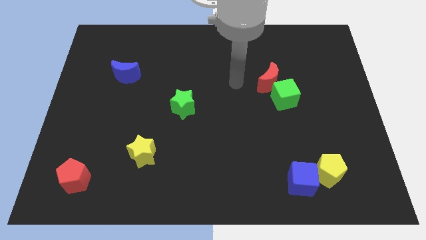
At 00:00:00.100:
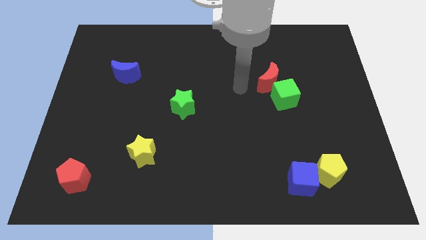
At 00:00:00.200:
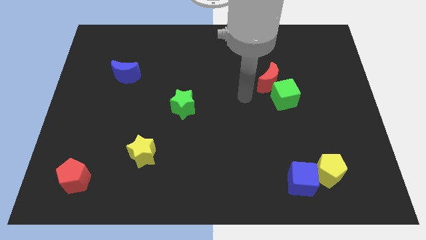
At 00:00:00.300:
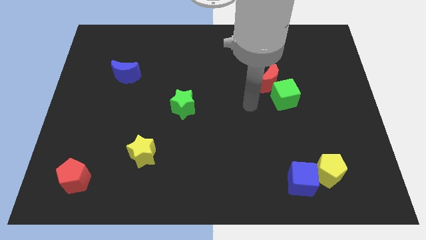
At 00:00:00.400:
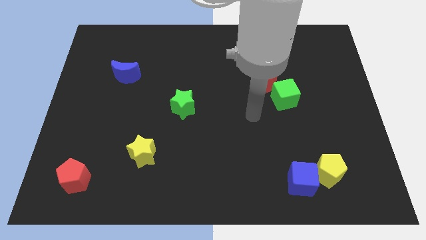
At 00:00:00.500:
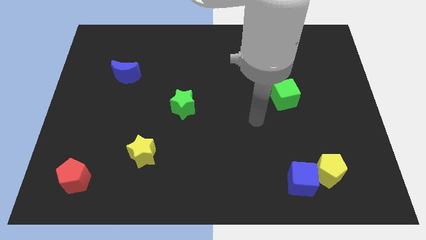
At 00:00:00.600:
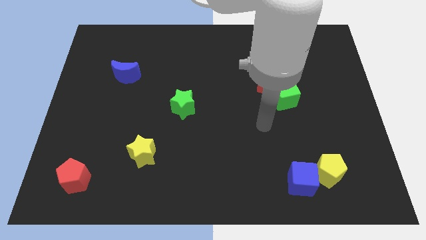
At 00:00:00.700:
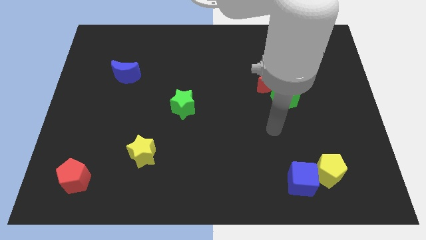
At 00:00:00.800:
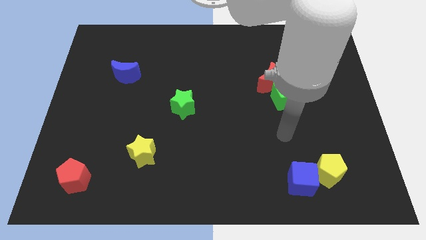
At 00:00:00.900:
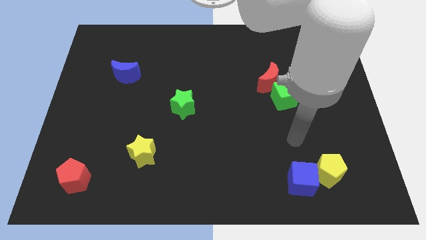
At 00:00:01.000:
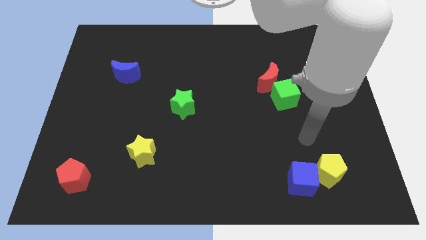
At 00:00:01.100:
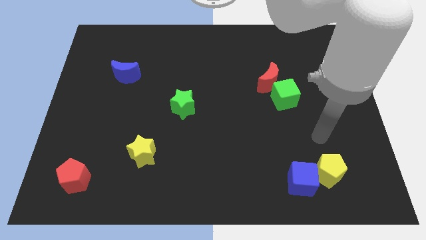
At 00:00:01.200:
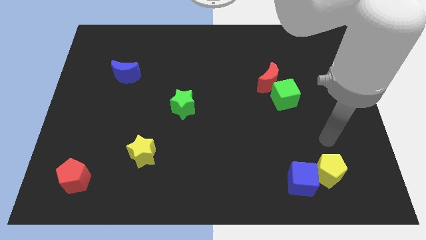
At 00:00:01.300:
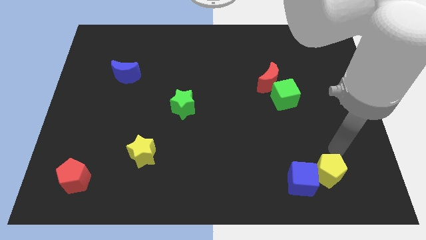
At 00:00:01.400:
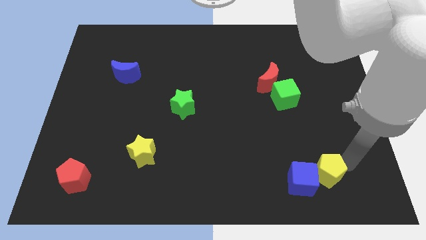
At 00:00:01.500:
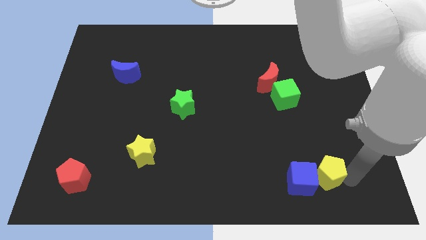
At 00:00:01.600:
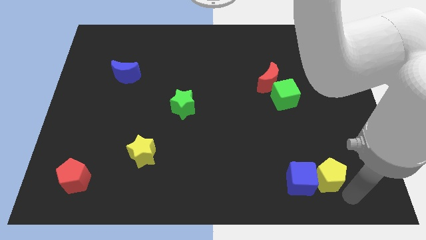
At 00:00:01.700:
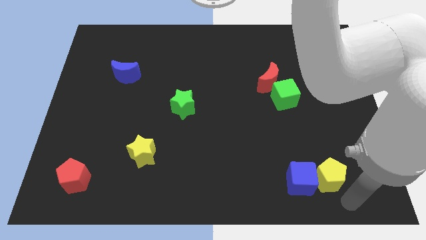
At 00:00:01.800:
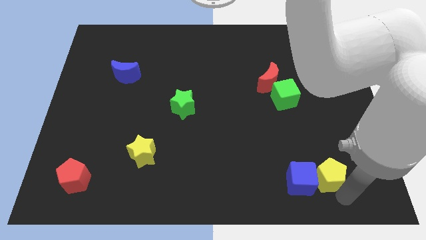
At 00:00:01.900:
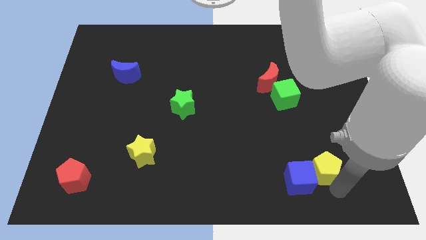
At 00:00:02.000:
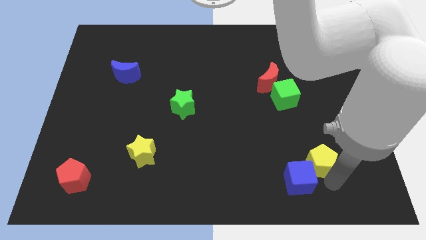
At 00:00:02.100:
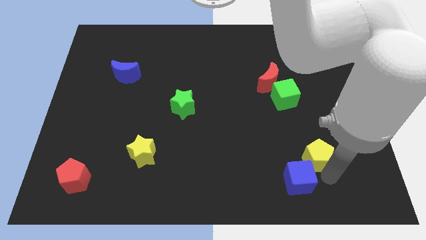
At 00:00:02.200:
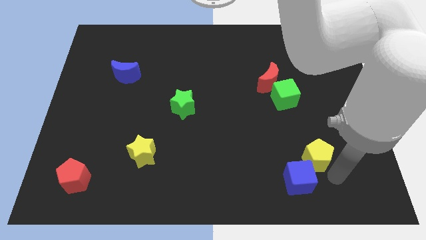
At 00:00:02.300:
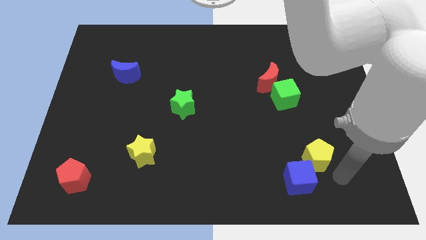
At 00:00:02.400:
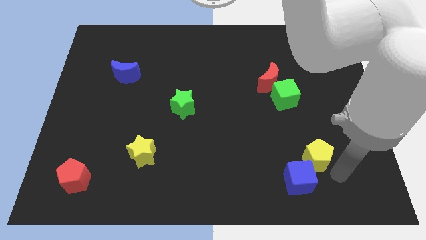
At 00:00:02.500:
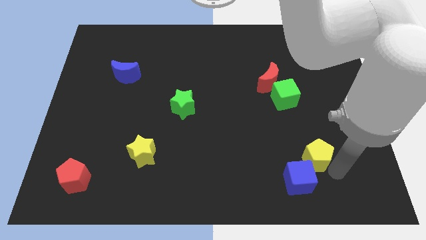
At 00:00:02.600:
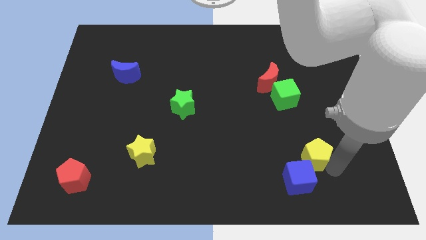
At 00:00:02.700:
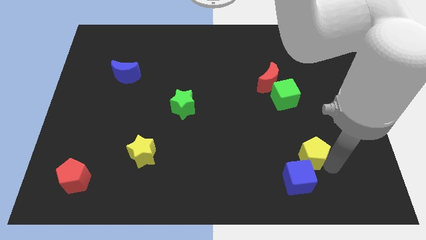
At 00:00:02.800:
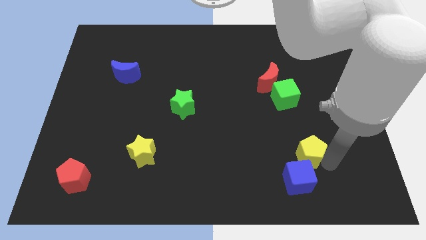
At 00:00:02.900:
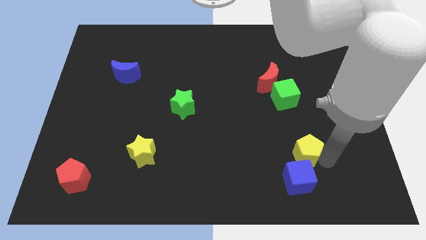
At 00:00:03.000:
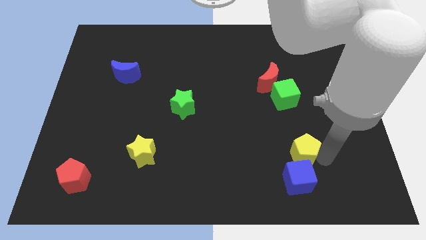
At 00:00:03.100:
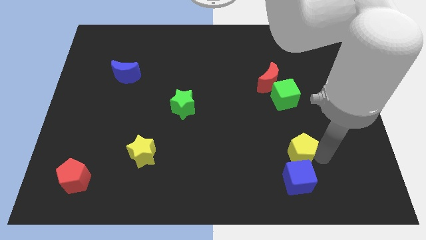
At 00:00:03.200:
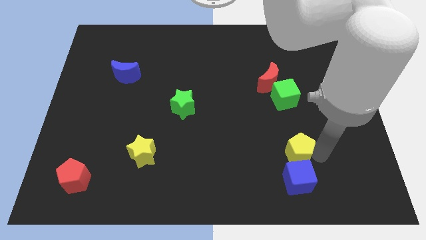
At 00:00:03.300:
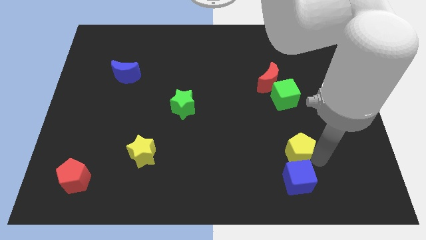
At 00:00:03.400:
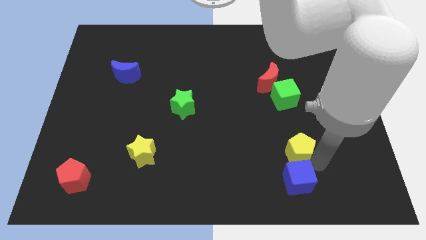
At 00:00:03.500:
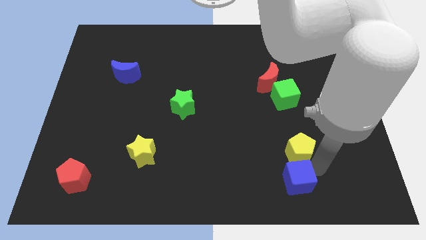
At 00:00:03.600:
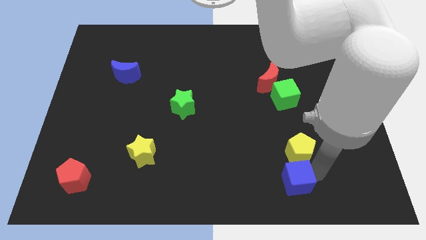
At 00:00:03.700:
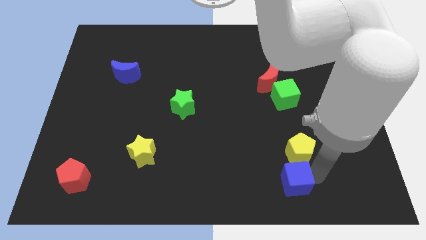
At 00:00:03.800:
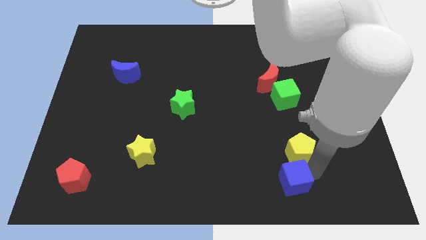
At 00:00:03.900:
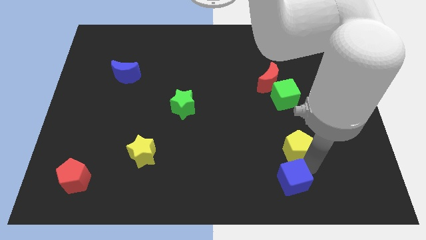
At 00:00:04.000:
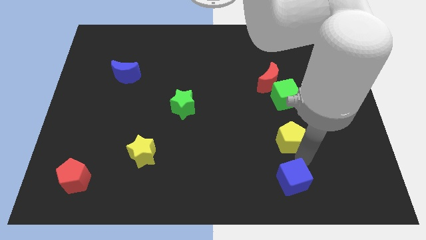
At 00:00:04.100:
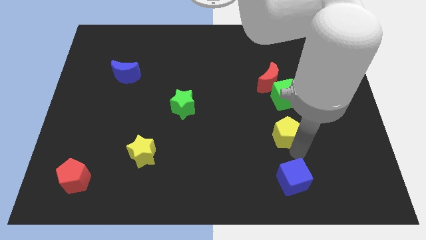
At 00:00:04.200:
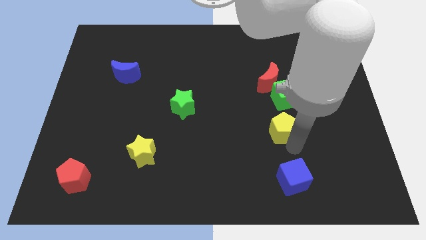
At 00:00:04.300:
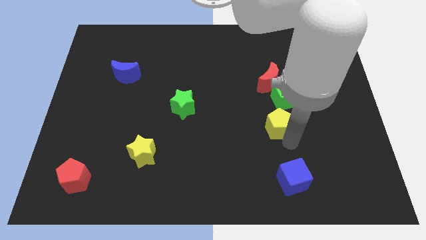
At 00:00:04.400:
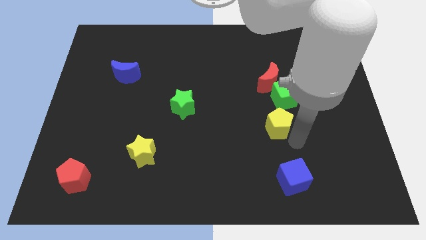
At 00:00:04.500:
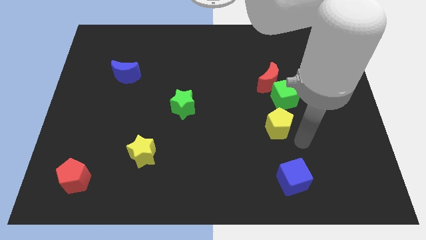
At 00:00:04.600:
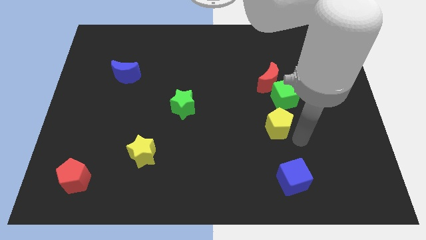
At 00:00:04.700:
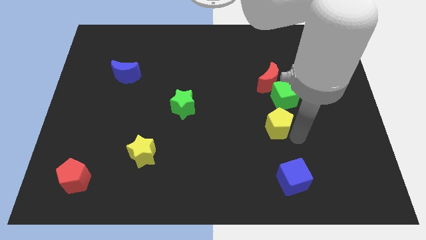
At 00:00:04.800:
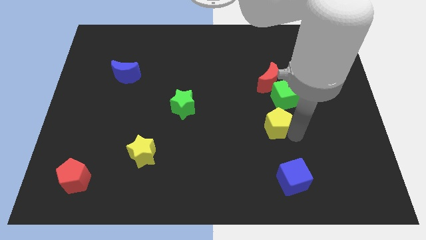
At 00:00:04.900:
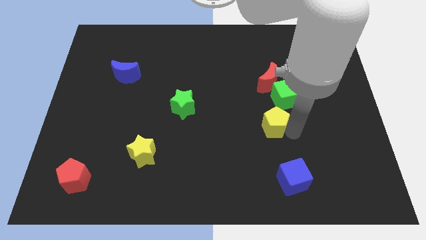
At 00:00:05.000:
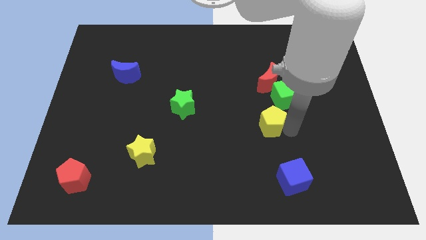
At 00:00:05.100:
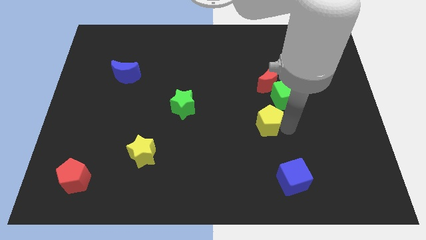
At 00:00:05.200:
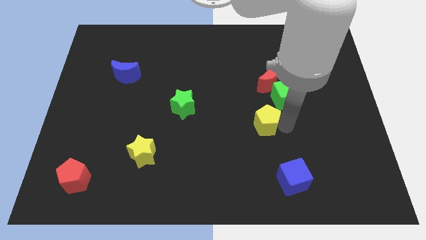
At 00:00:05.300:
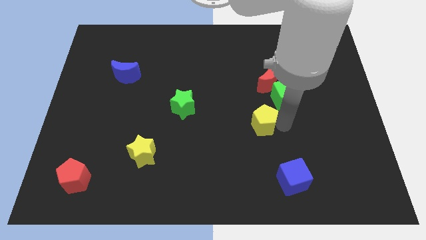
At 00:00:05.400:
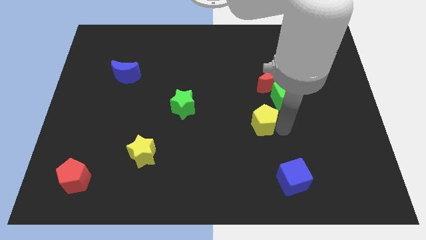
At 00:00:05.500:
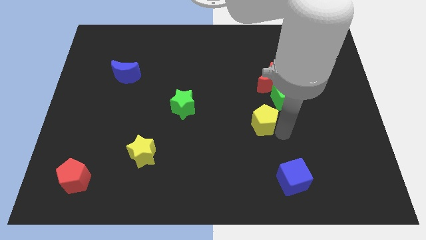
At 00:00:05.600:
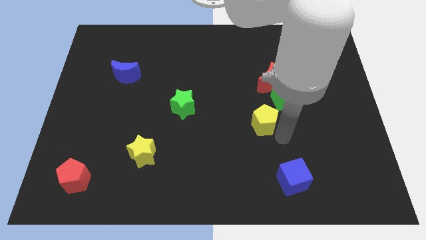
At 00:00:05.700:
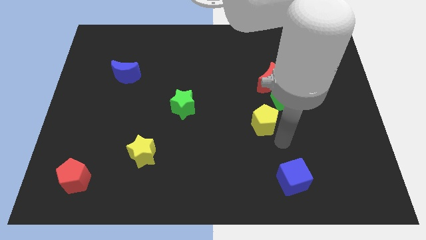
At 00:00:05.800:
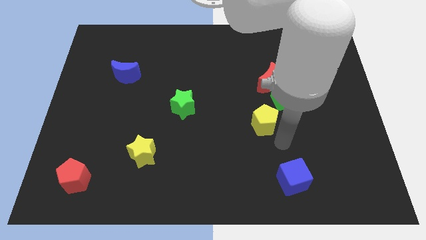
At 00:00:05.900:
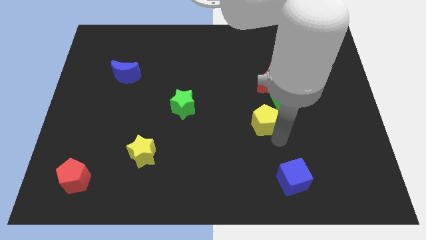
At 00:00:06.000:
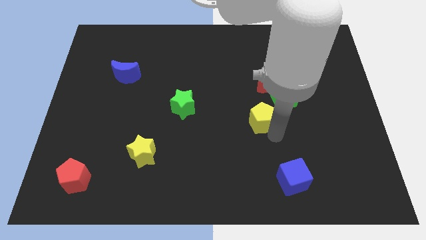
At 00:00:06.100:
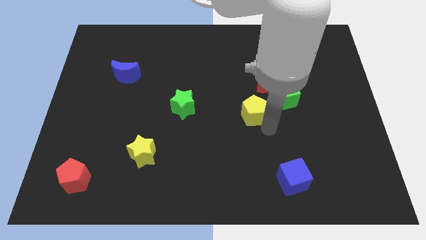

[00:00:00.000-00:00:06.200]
put the yellow pentagon left of the green cube

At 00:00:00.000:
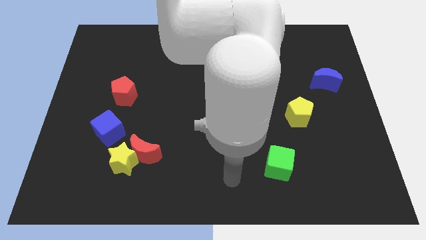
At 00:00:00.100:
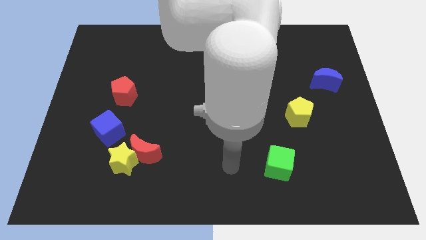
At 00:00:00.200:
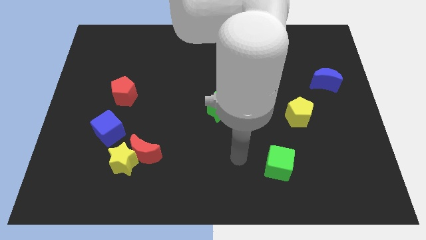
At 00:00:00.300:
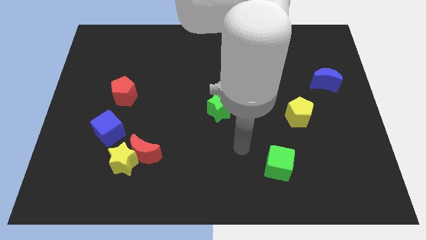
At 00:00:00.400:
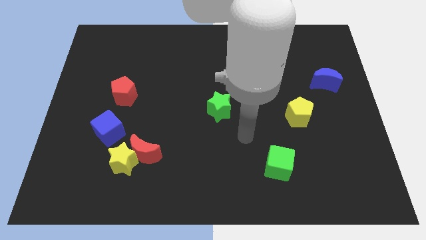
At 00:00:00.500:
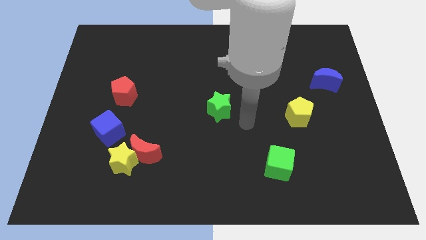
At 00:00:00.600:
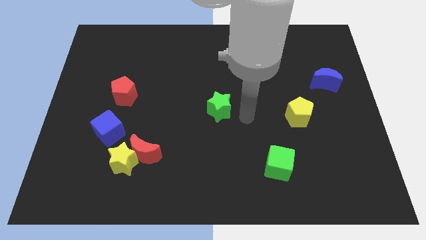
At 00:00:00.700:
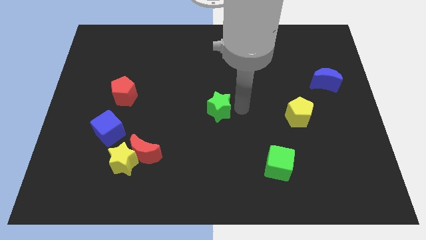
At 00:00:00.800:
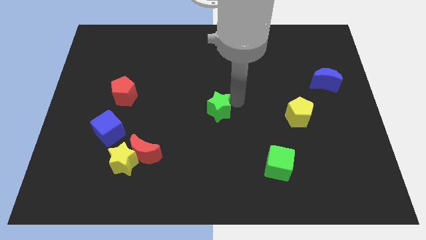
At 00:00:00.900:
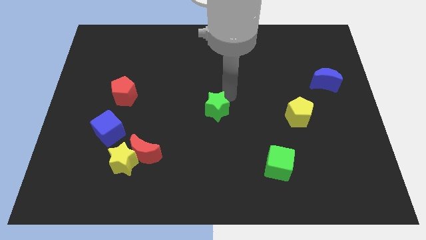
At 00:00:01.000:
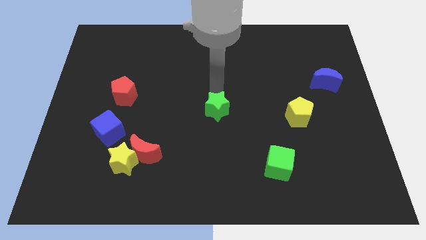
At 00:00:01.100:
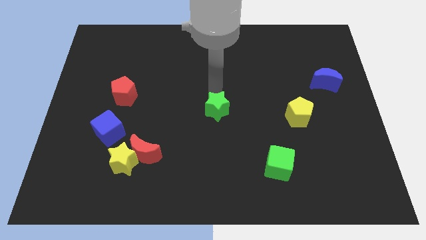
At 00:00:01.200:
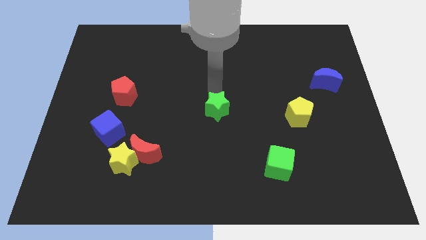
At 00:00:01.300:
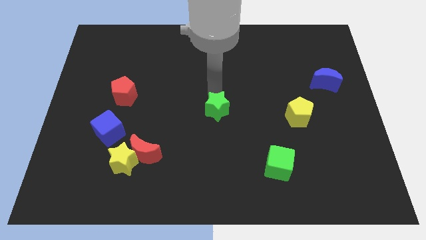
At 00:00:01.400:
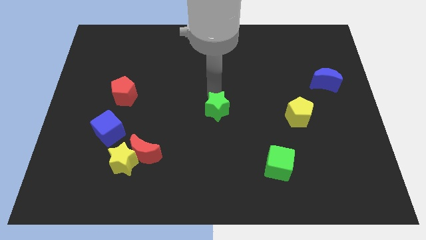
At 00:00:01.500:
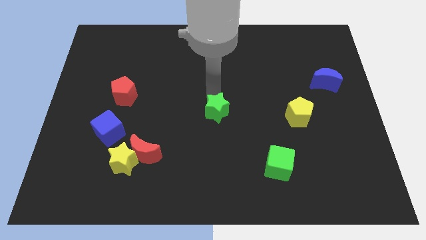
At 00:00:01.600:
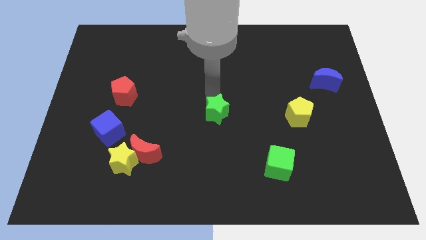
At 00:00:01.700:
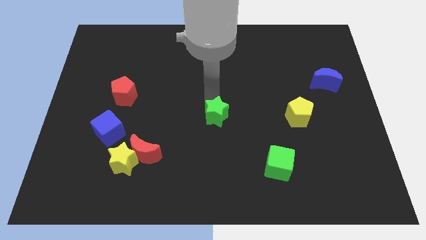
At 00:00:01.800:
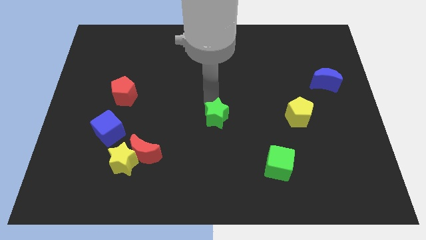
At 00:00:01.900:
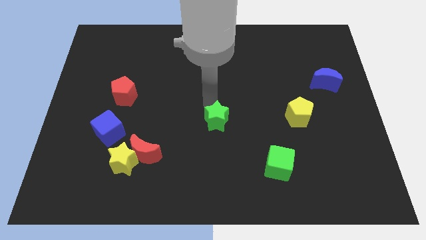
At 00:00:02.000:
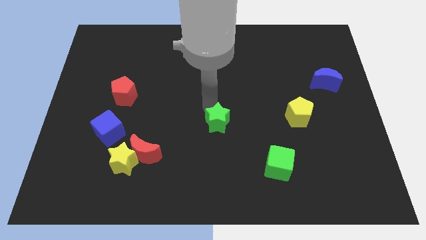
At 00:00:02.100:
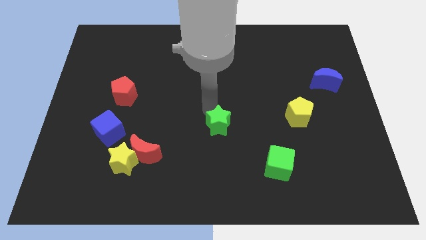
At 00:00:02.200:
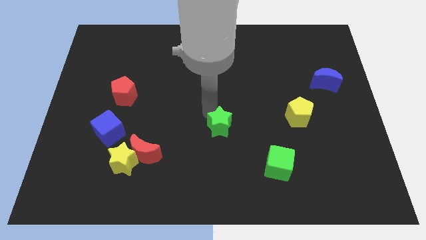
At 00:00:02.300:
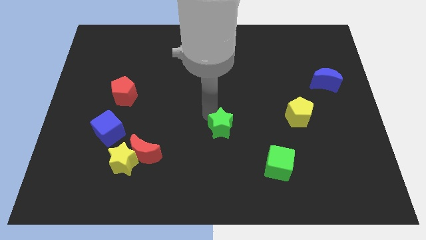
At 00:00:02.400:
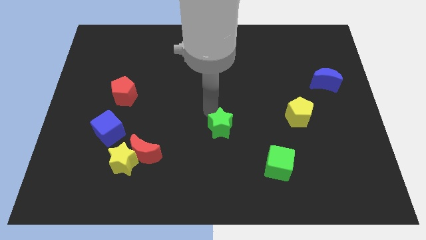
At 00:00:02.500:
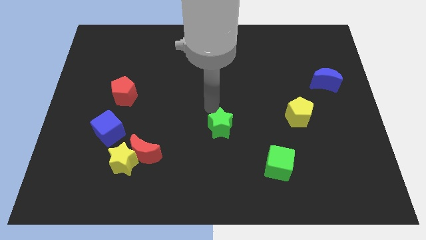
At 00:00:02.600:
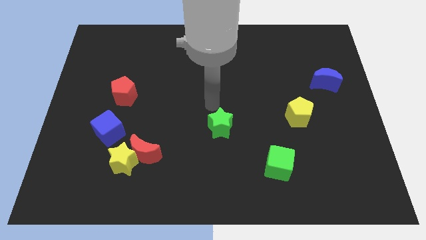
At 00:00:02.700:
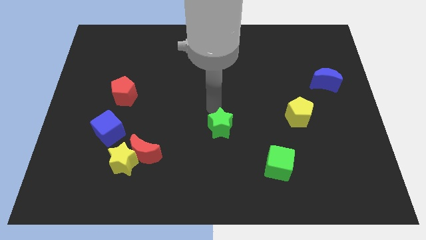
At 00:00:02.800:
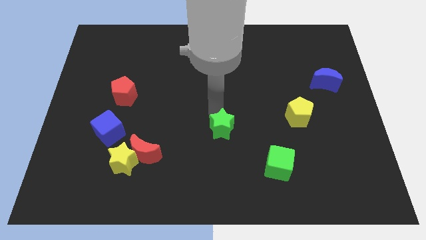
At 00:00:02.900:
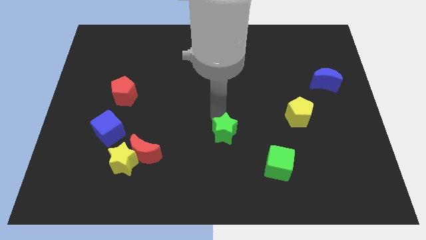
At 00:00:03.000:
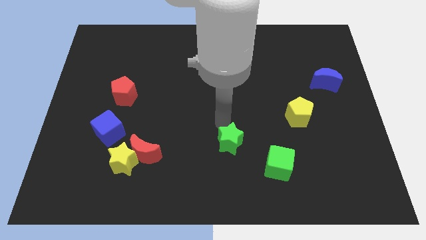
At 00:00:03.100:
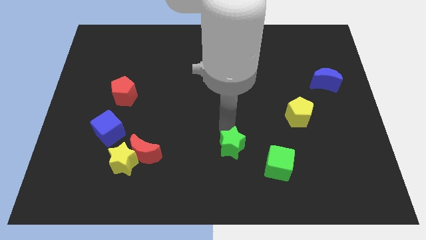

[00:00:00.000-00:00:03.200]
push the green star to the left of the green cube
